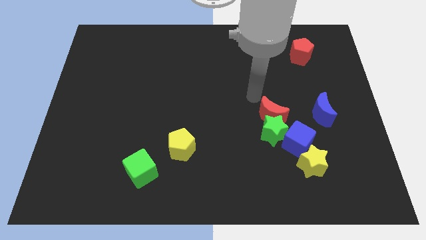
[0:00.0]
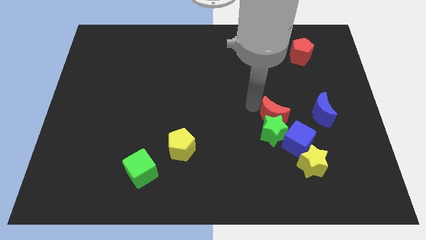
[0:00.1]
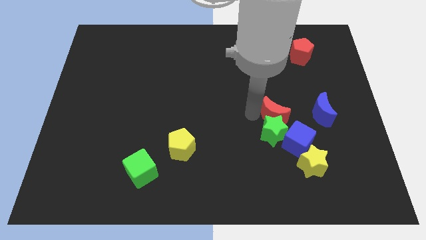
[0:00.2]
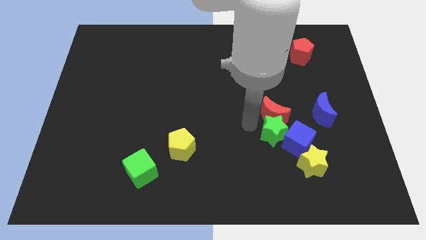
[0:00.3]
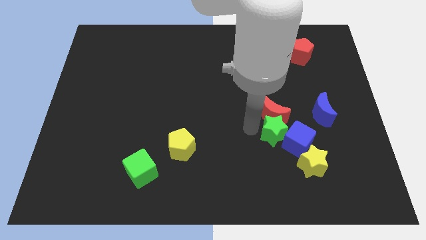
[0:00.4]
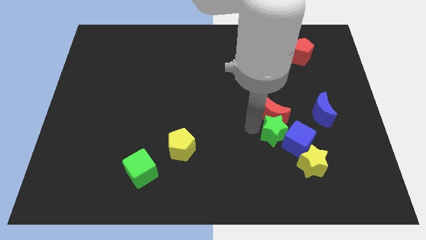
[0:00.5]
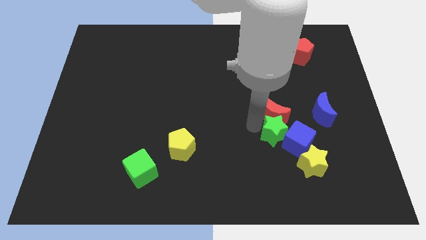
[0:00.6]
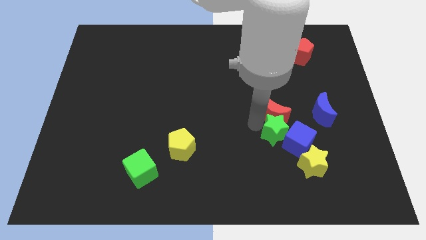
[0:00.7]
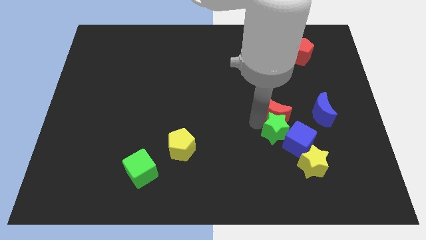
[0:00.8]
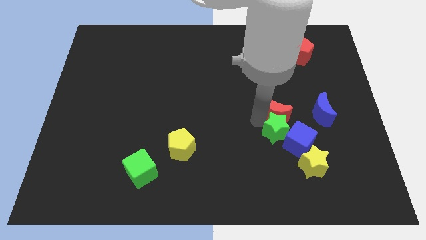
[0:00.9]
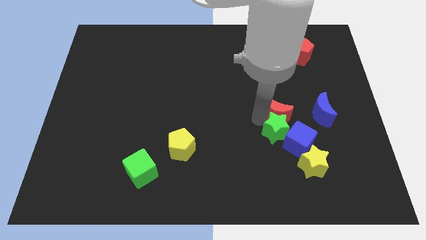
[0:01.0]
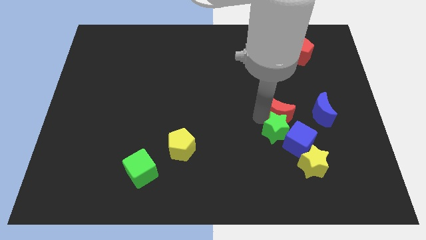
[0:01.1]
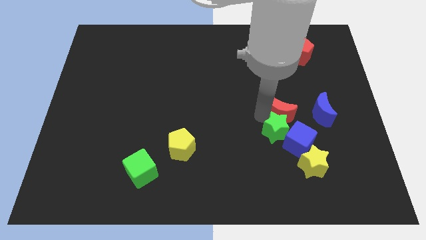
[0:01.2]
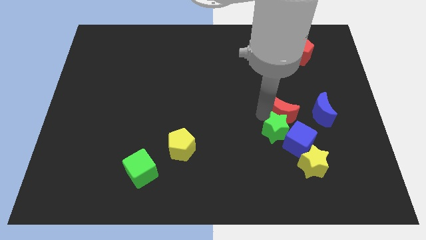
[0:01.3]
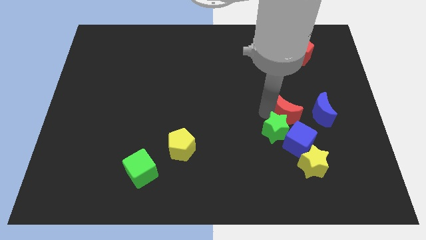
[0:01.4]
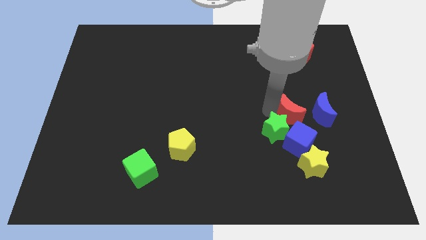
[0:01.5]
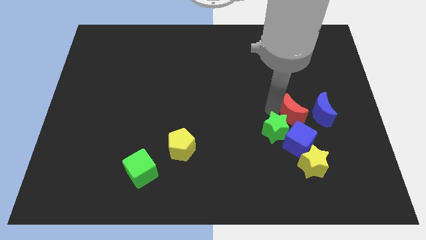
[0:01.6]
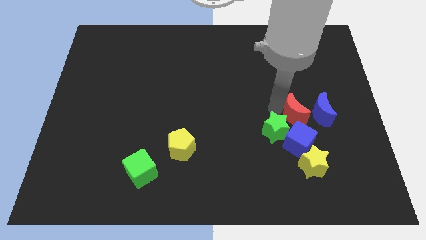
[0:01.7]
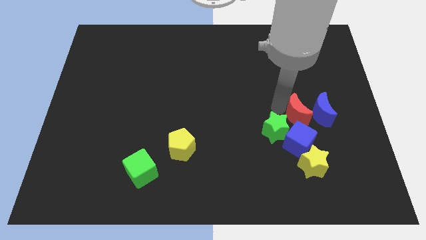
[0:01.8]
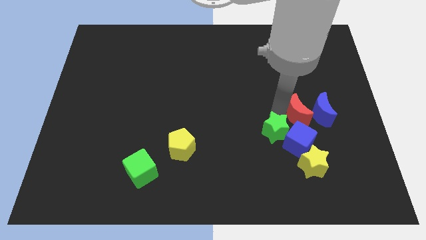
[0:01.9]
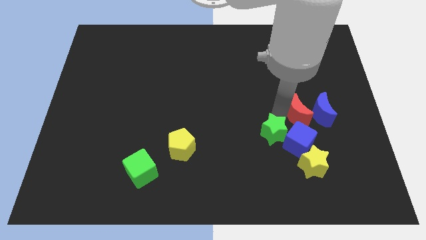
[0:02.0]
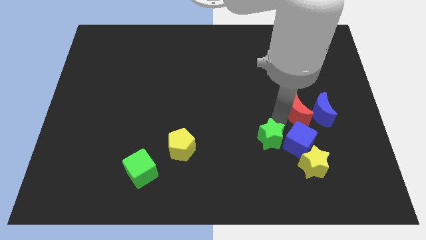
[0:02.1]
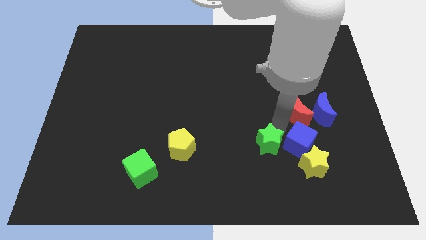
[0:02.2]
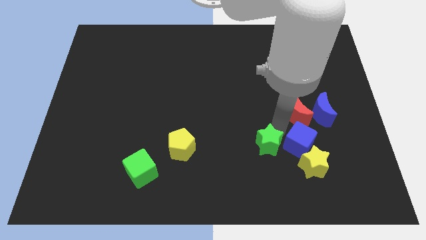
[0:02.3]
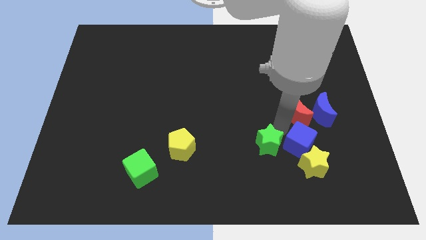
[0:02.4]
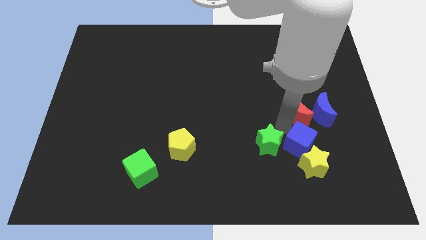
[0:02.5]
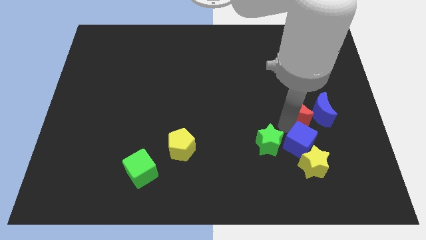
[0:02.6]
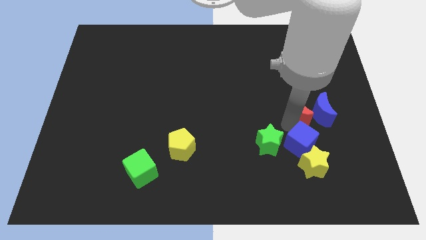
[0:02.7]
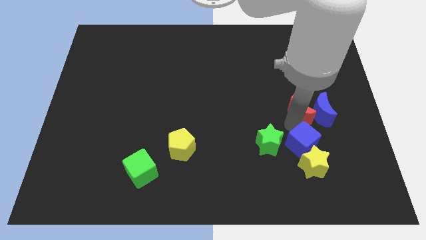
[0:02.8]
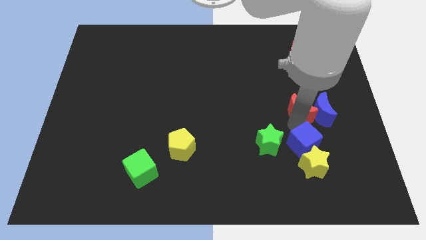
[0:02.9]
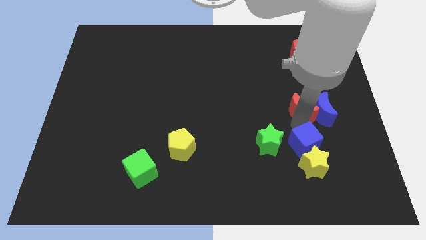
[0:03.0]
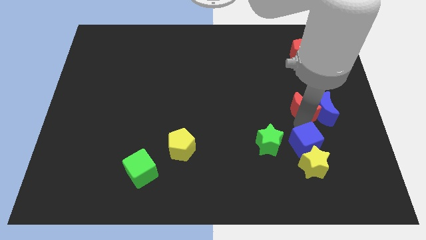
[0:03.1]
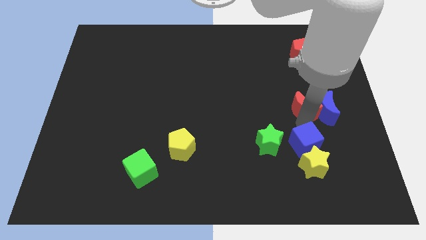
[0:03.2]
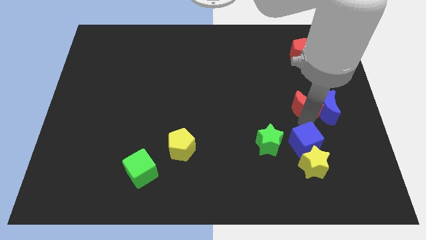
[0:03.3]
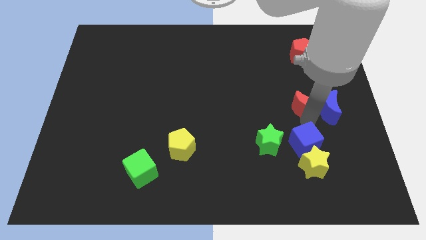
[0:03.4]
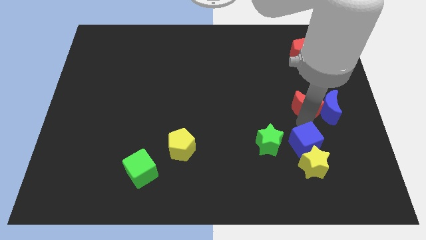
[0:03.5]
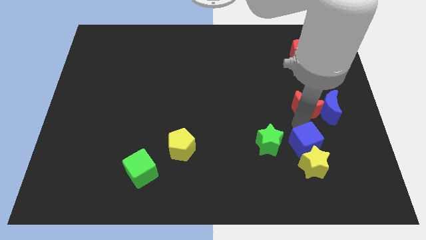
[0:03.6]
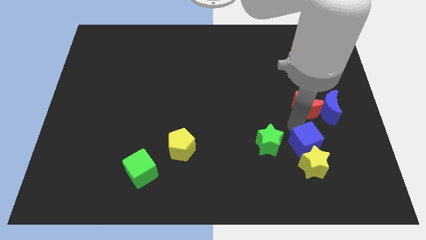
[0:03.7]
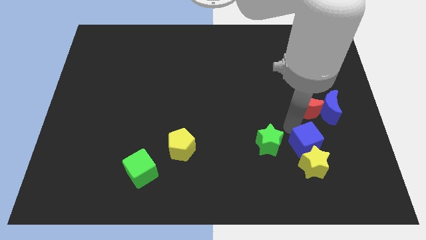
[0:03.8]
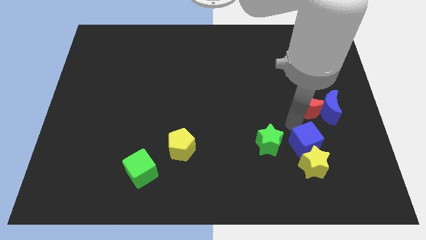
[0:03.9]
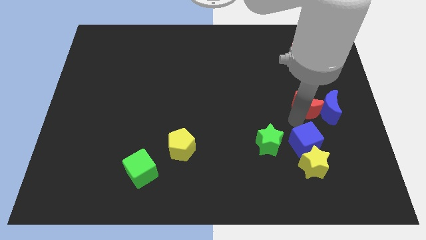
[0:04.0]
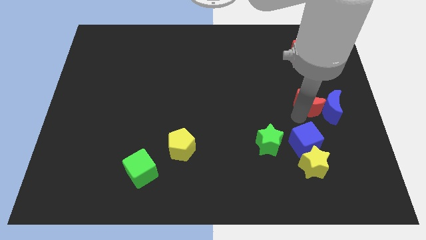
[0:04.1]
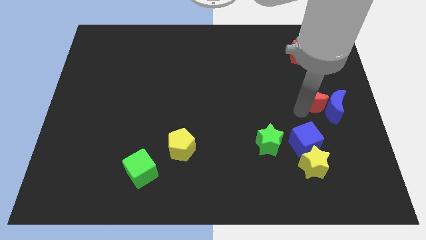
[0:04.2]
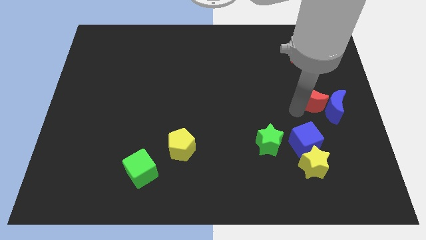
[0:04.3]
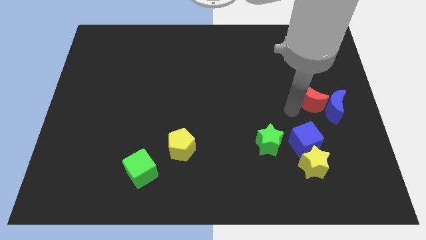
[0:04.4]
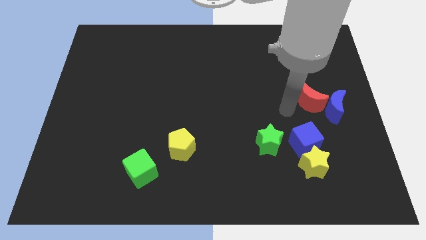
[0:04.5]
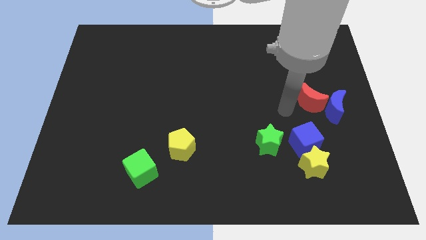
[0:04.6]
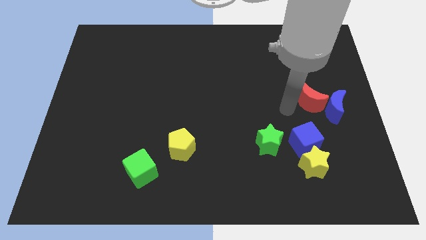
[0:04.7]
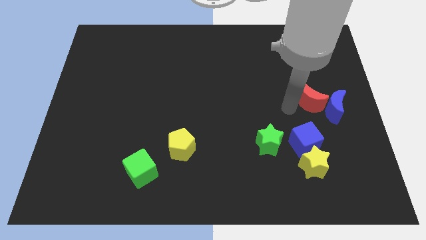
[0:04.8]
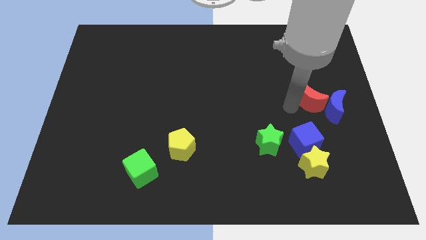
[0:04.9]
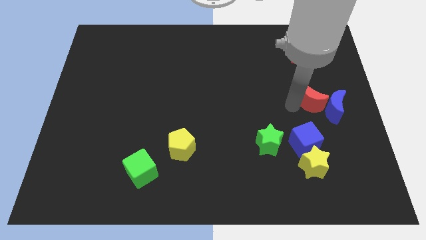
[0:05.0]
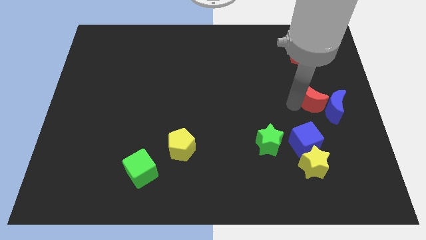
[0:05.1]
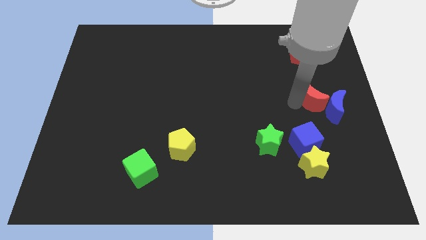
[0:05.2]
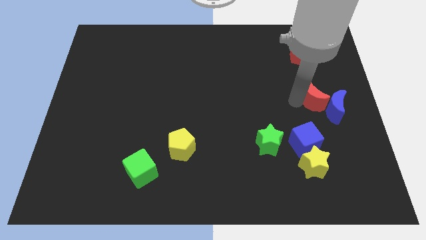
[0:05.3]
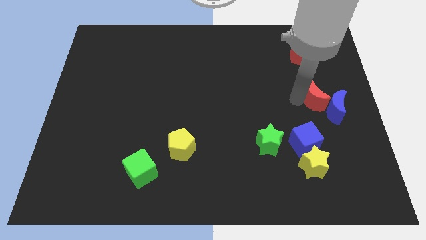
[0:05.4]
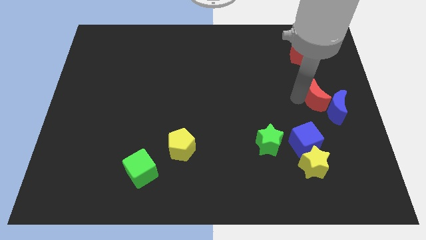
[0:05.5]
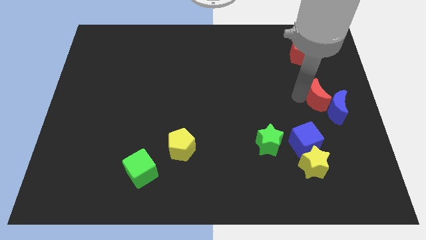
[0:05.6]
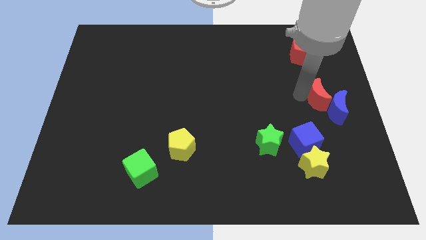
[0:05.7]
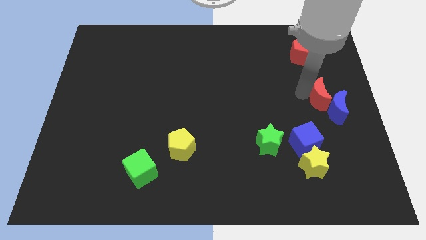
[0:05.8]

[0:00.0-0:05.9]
move the red moon to the center right
